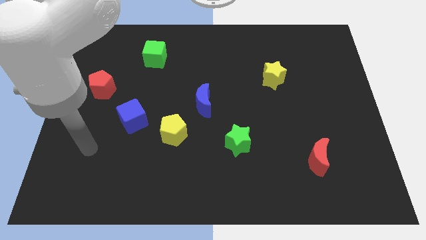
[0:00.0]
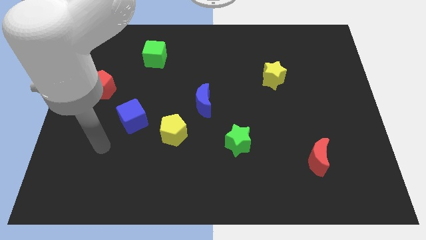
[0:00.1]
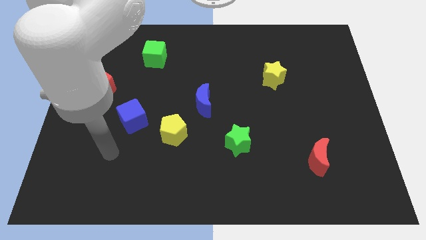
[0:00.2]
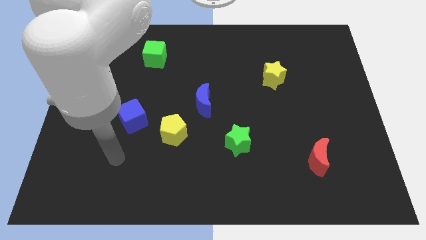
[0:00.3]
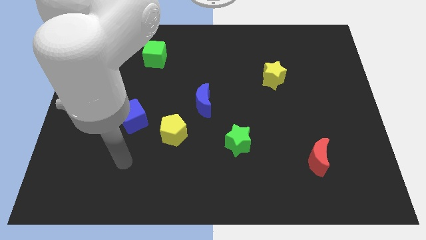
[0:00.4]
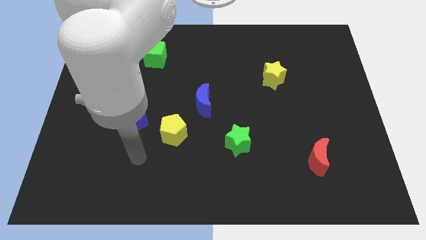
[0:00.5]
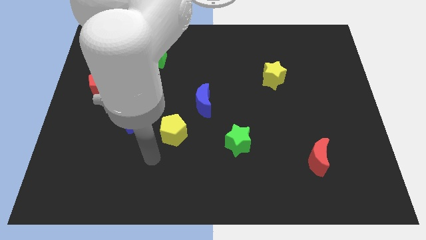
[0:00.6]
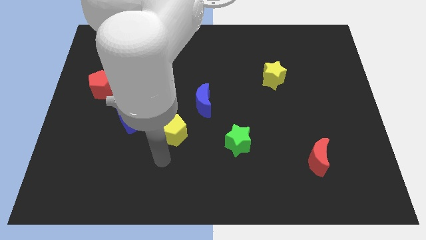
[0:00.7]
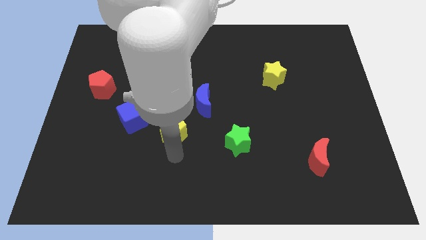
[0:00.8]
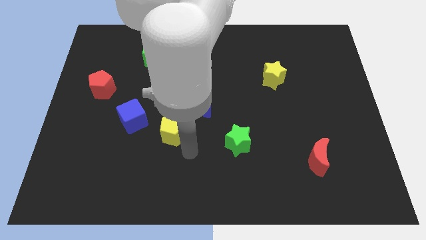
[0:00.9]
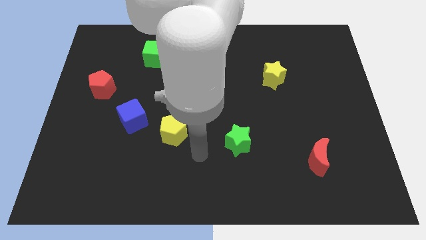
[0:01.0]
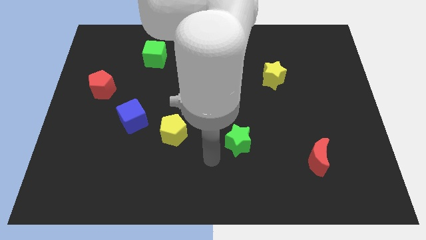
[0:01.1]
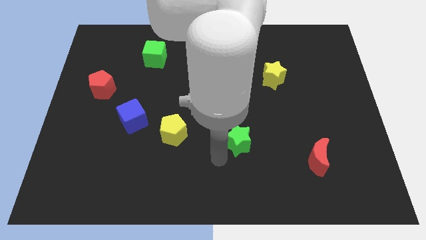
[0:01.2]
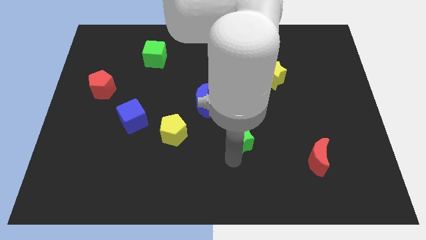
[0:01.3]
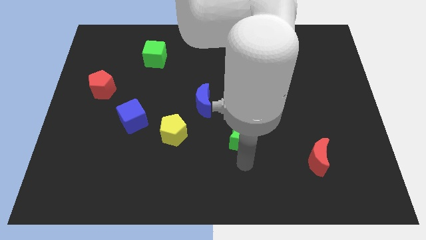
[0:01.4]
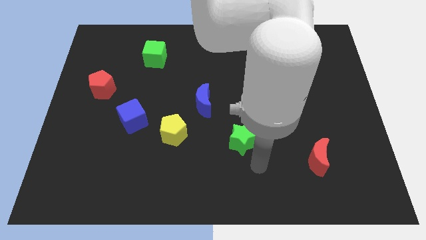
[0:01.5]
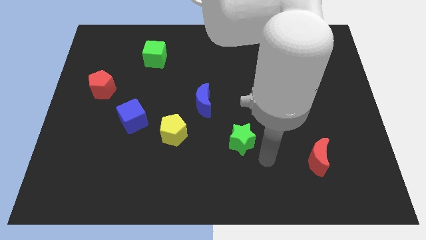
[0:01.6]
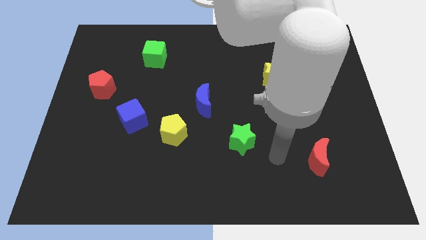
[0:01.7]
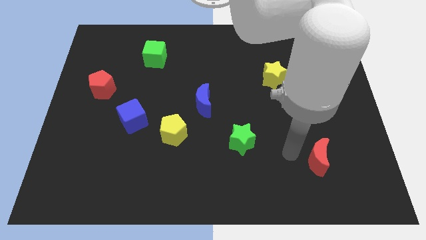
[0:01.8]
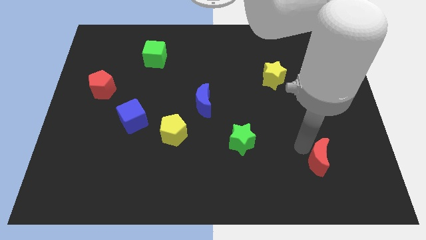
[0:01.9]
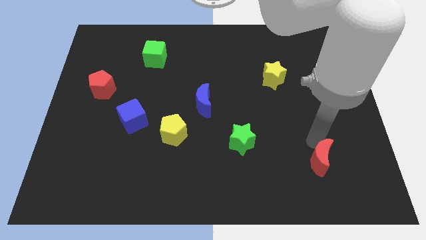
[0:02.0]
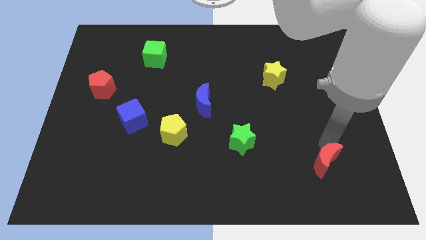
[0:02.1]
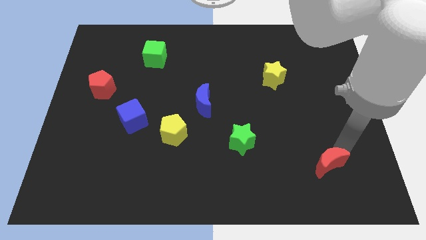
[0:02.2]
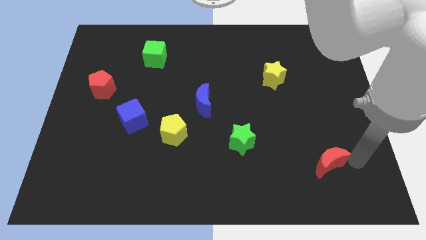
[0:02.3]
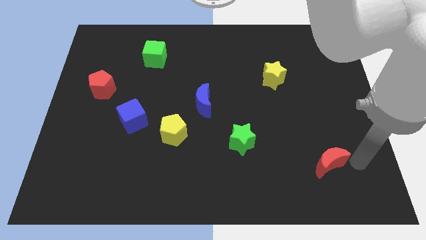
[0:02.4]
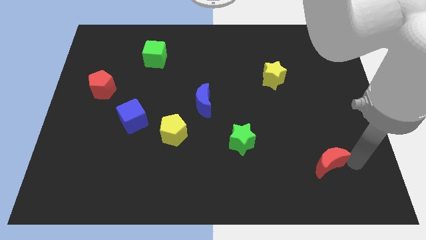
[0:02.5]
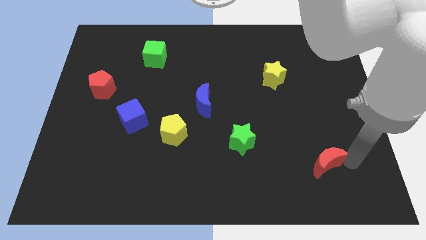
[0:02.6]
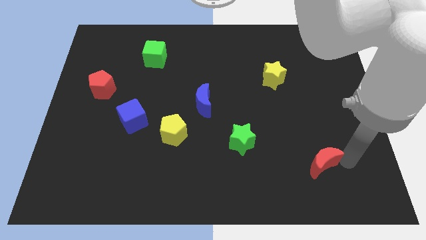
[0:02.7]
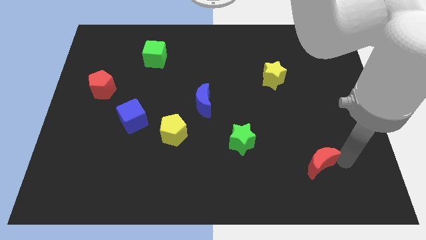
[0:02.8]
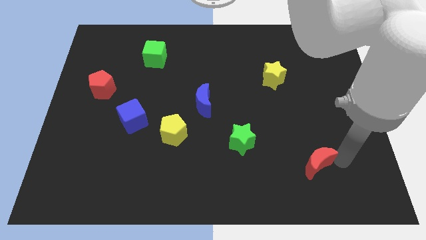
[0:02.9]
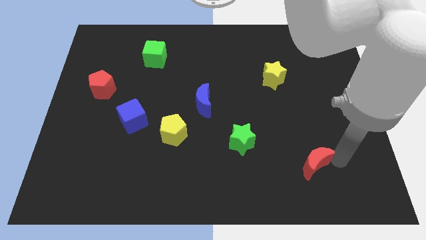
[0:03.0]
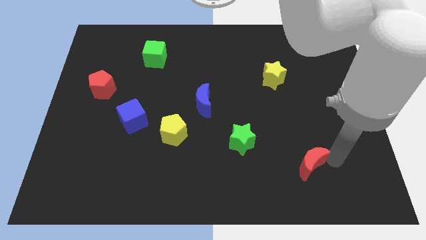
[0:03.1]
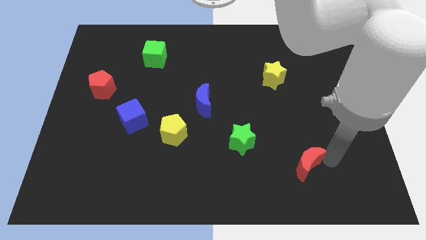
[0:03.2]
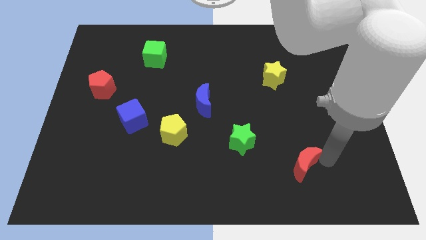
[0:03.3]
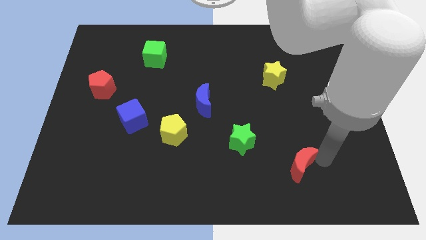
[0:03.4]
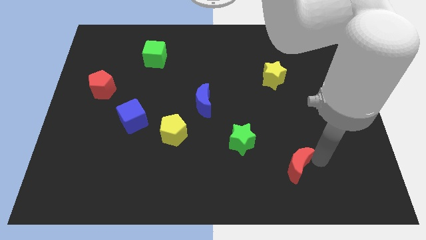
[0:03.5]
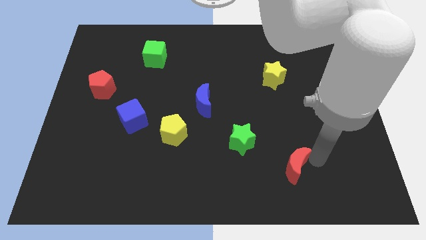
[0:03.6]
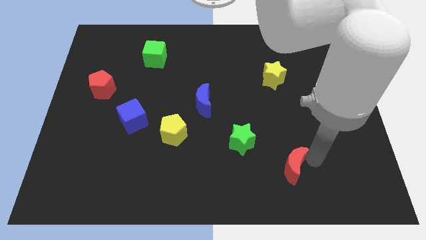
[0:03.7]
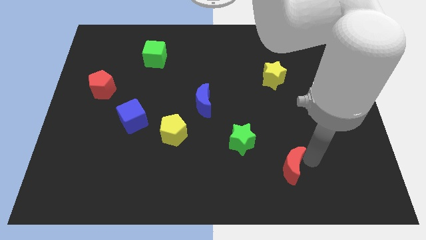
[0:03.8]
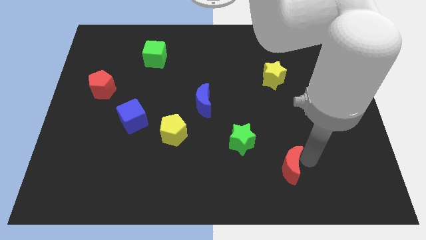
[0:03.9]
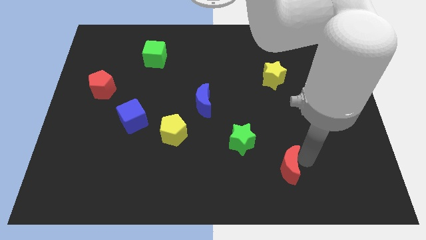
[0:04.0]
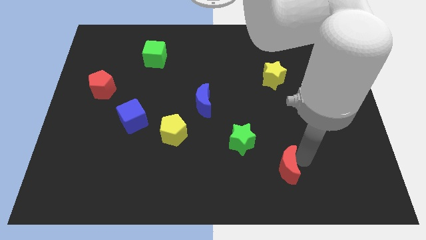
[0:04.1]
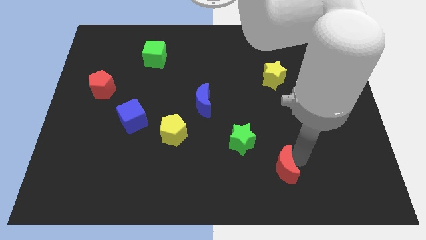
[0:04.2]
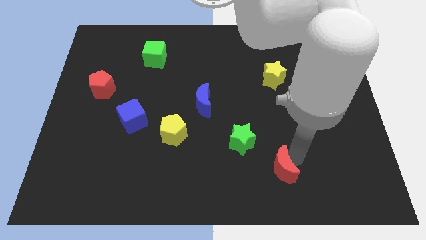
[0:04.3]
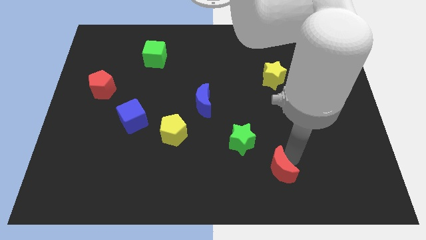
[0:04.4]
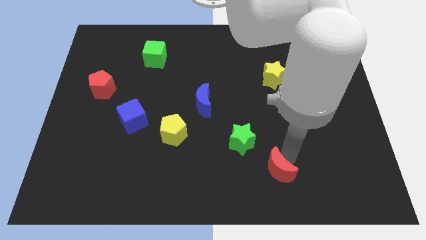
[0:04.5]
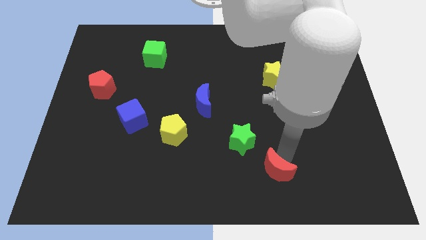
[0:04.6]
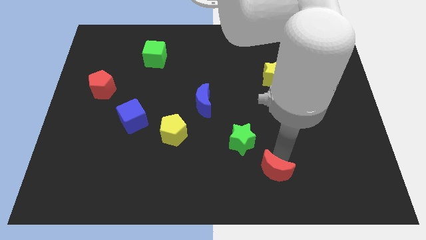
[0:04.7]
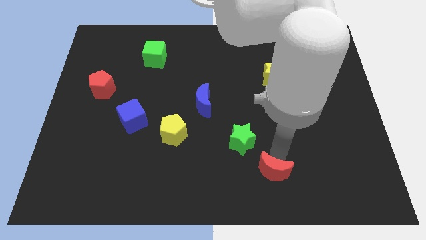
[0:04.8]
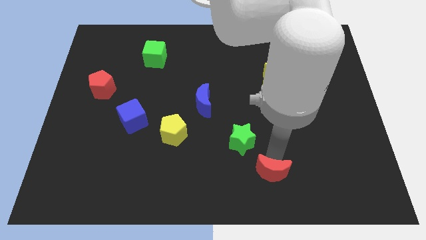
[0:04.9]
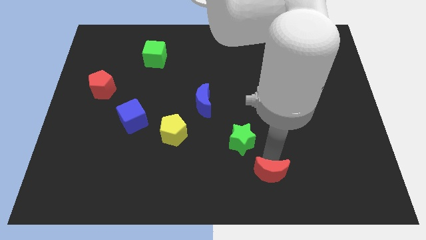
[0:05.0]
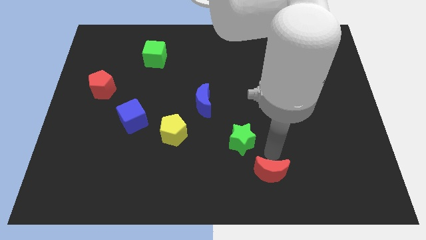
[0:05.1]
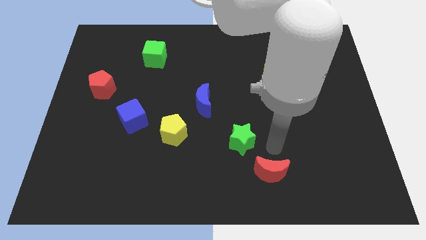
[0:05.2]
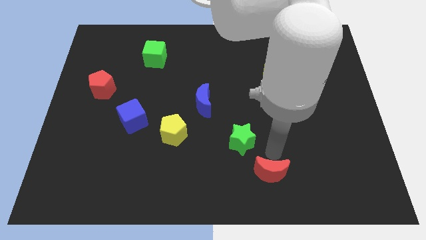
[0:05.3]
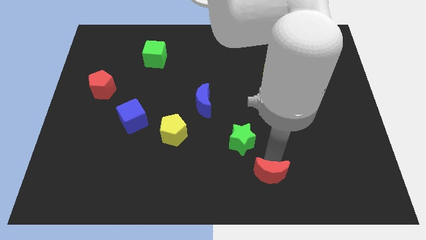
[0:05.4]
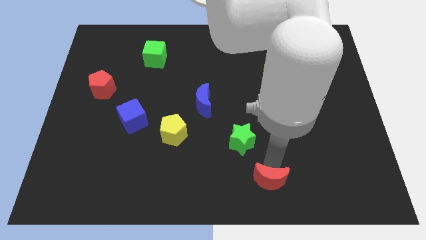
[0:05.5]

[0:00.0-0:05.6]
move the red moon to the bottom

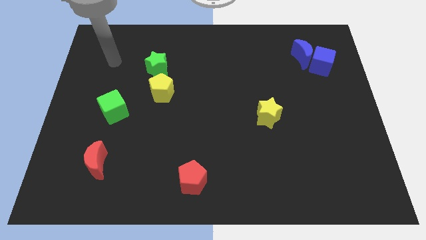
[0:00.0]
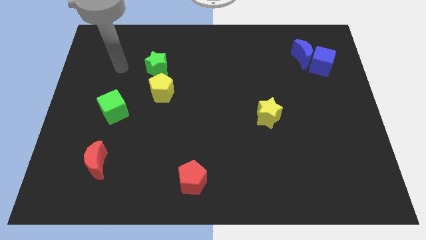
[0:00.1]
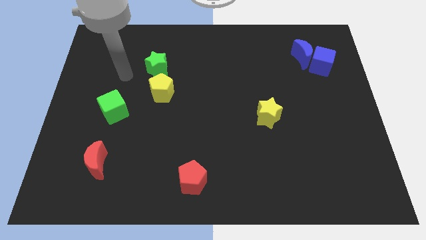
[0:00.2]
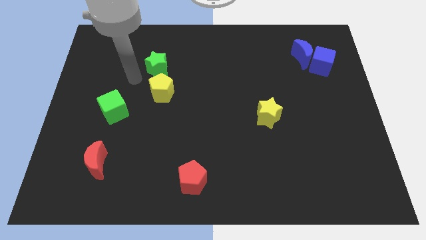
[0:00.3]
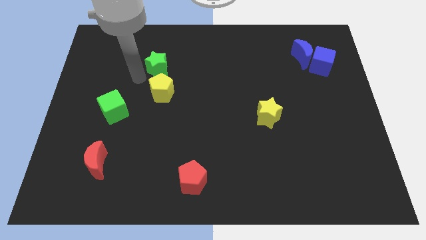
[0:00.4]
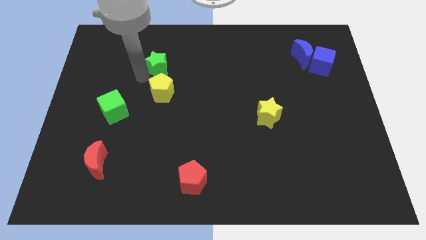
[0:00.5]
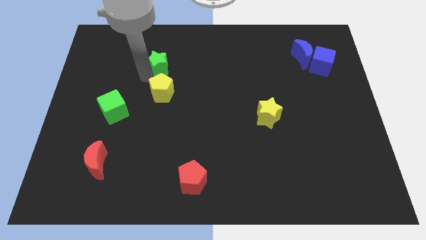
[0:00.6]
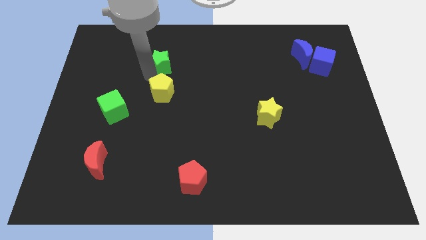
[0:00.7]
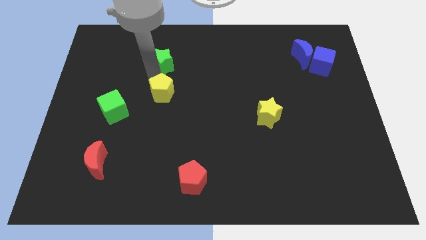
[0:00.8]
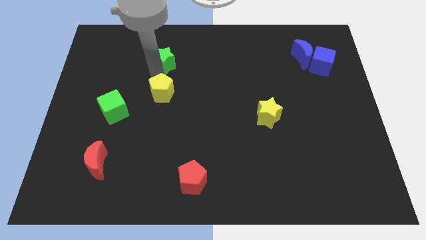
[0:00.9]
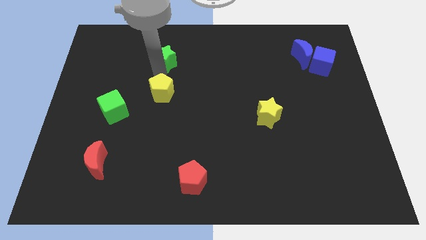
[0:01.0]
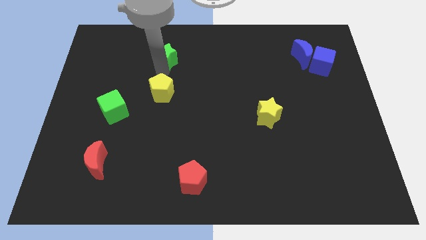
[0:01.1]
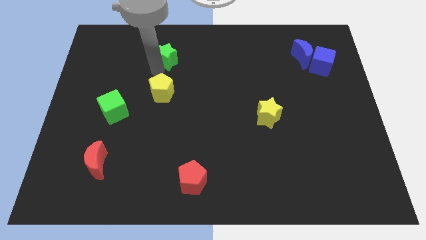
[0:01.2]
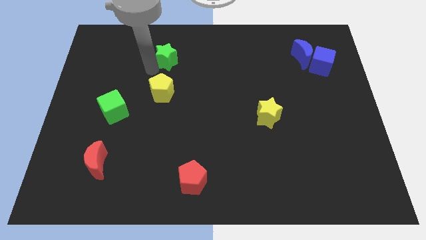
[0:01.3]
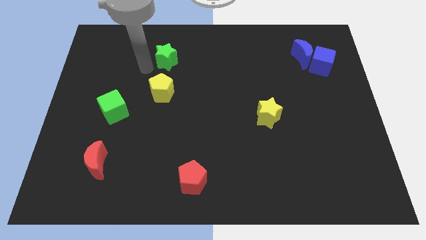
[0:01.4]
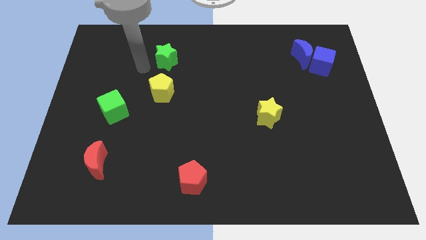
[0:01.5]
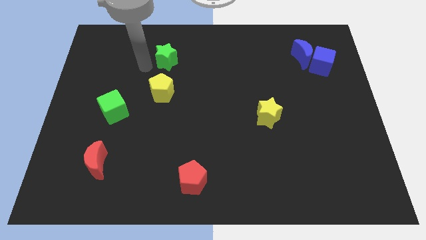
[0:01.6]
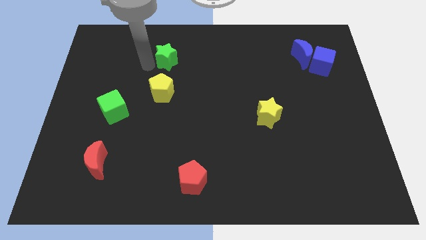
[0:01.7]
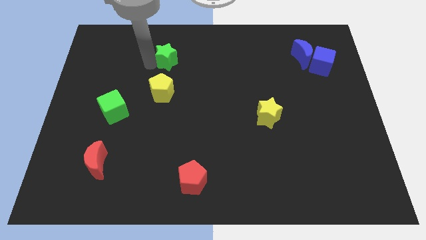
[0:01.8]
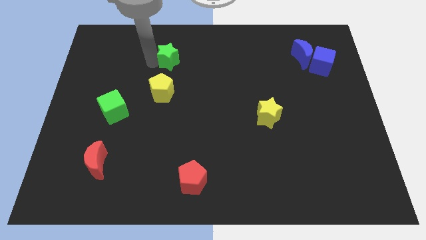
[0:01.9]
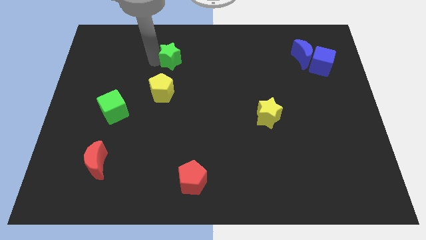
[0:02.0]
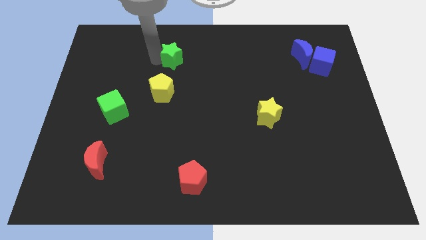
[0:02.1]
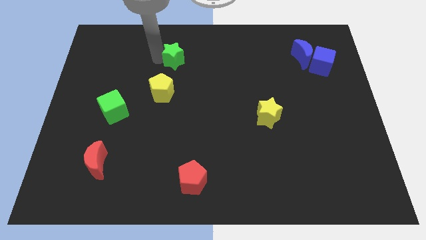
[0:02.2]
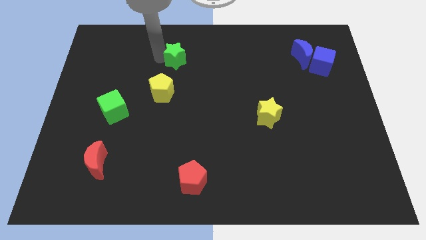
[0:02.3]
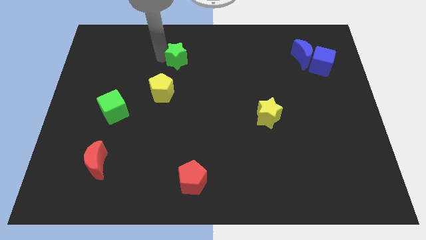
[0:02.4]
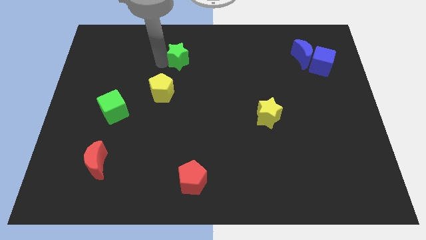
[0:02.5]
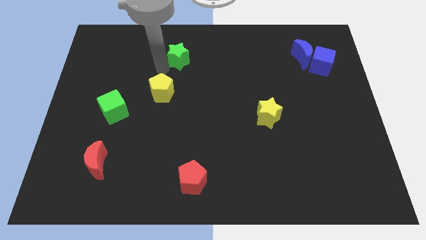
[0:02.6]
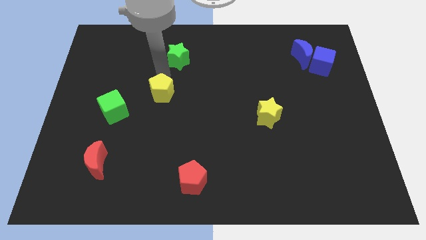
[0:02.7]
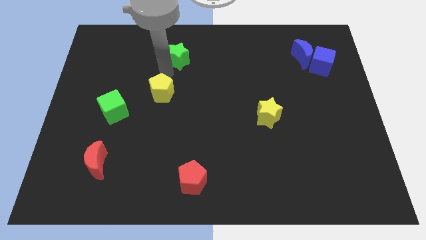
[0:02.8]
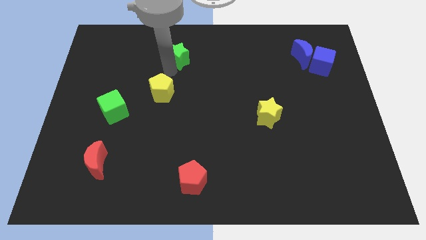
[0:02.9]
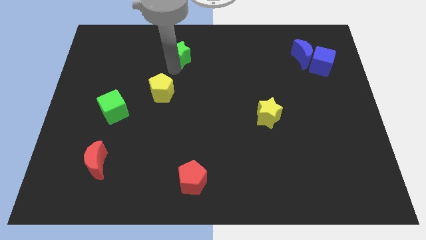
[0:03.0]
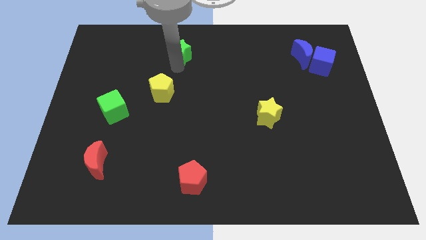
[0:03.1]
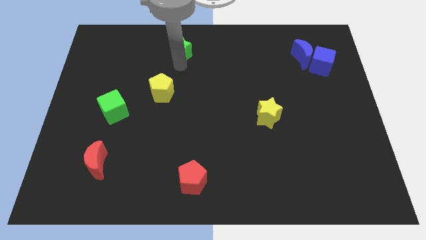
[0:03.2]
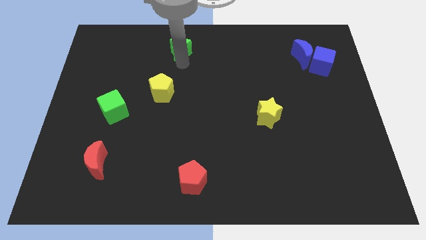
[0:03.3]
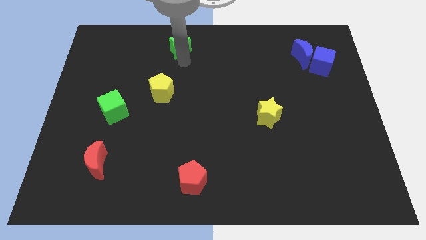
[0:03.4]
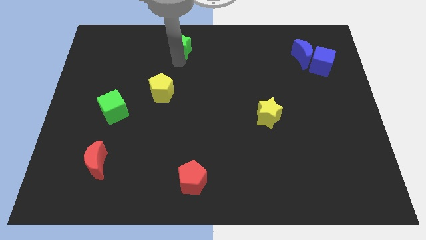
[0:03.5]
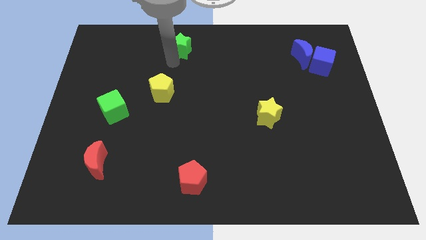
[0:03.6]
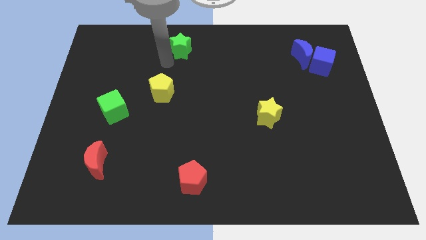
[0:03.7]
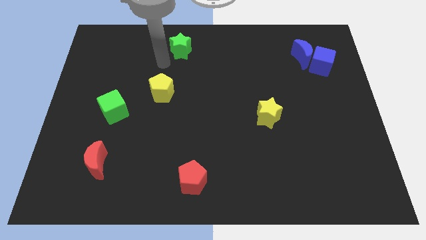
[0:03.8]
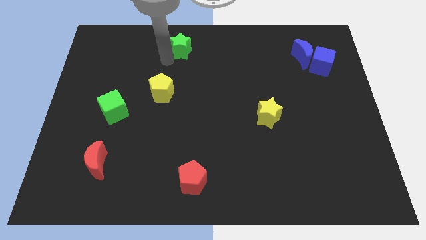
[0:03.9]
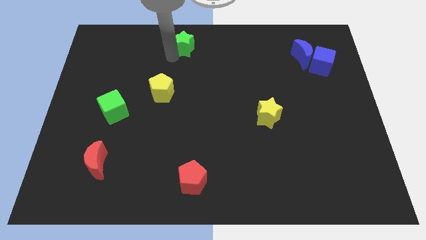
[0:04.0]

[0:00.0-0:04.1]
slide the green star to the towards your base
